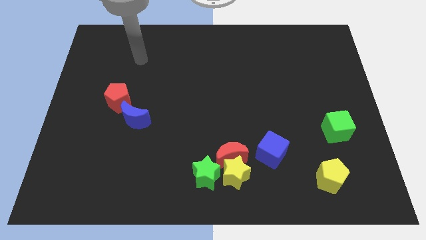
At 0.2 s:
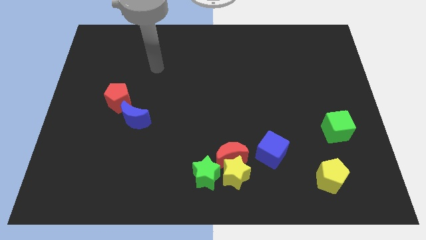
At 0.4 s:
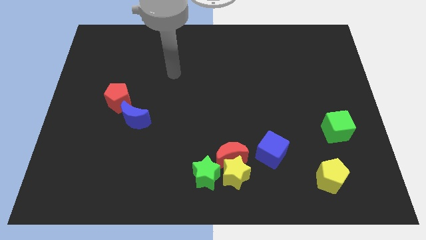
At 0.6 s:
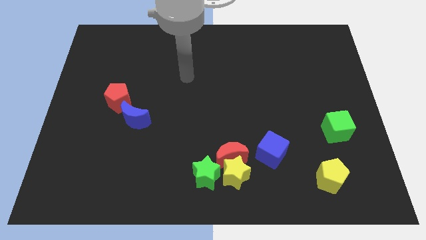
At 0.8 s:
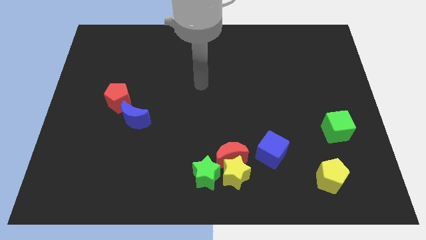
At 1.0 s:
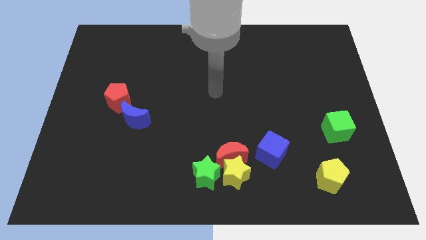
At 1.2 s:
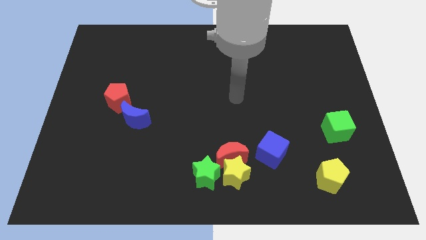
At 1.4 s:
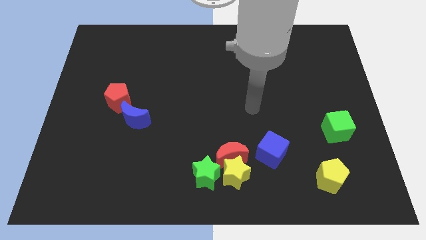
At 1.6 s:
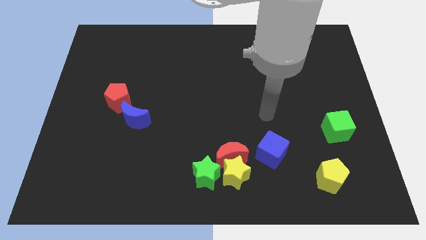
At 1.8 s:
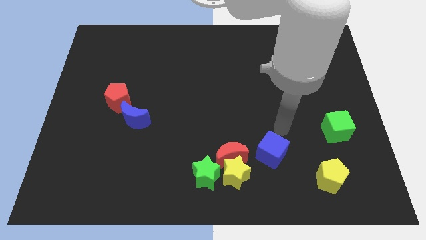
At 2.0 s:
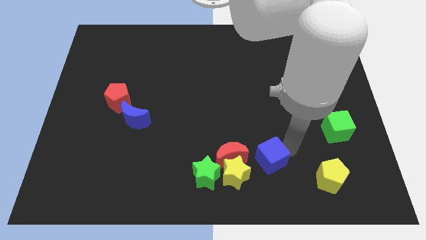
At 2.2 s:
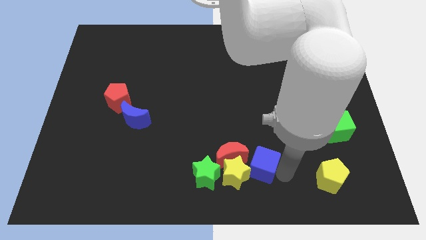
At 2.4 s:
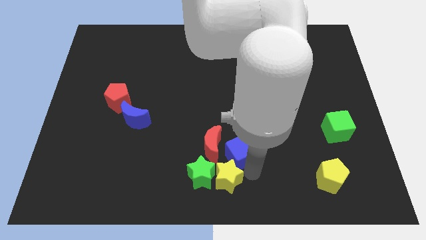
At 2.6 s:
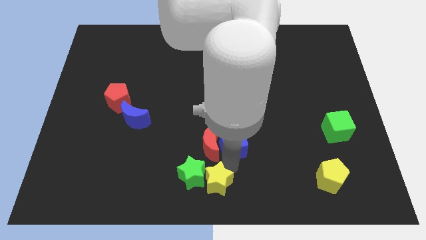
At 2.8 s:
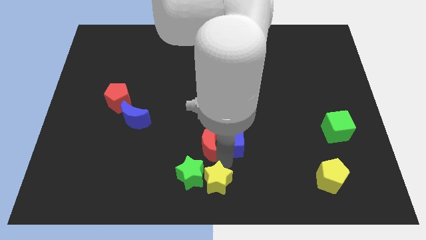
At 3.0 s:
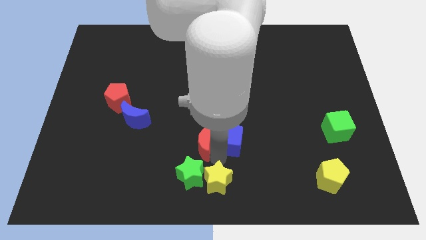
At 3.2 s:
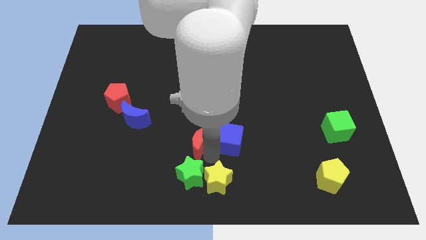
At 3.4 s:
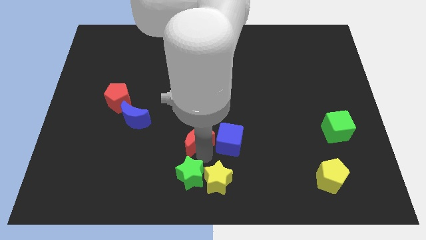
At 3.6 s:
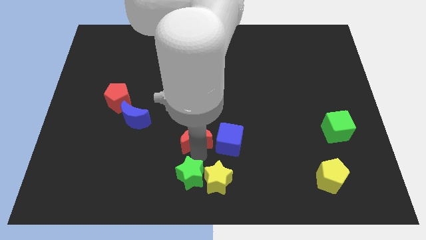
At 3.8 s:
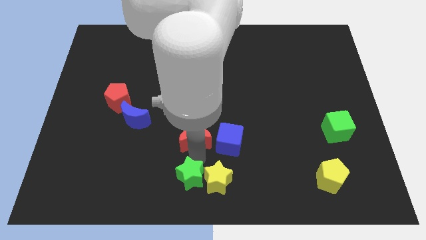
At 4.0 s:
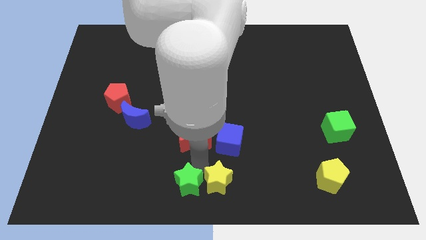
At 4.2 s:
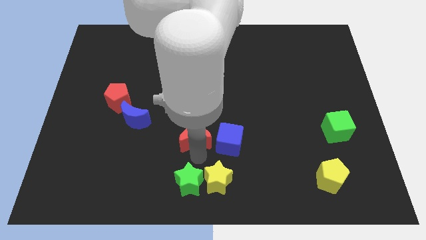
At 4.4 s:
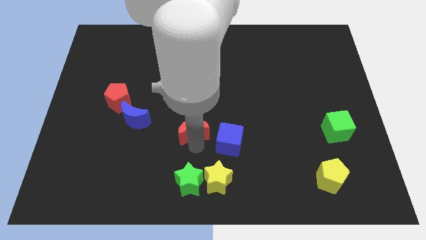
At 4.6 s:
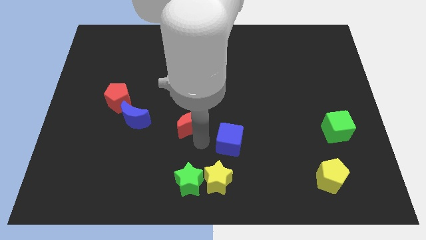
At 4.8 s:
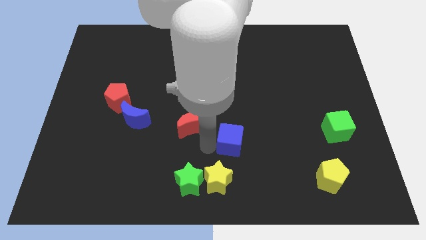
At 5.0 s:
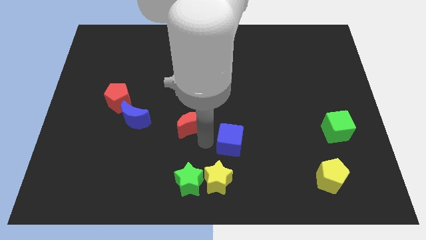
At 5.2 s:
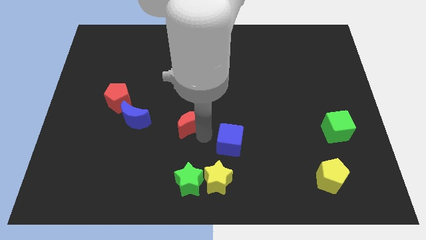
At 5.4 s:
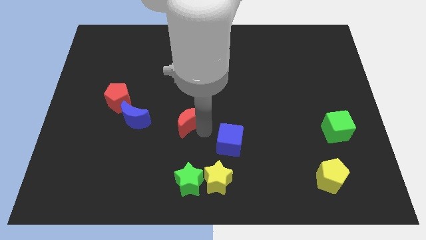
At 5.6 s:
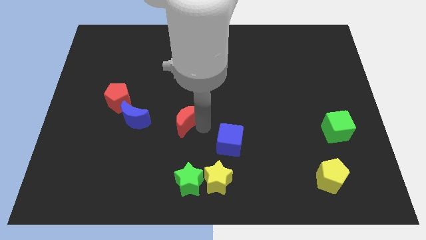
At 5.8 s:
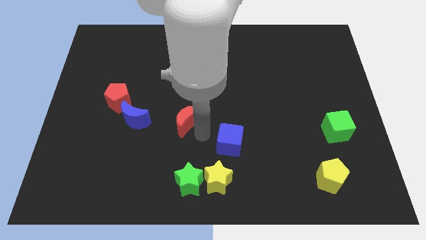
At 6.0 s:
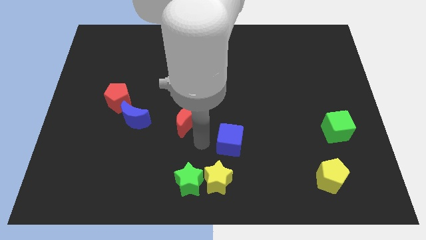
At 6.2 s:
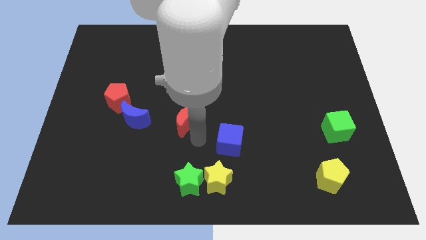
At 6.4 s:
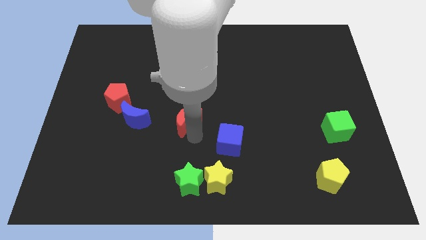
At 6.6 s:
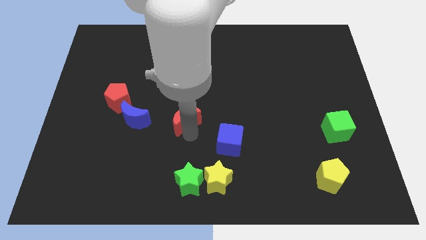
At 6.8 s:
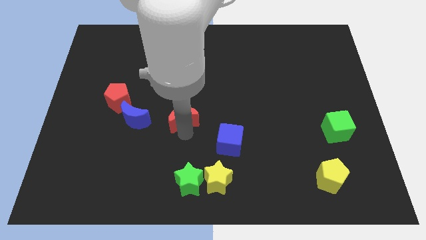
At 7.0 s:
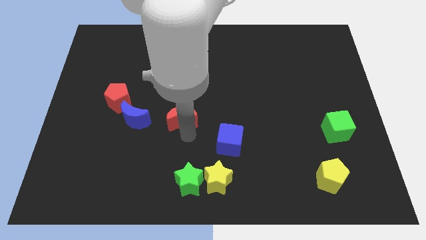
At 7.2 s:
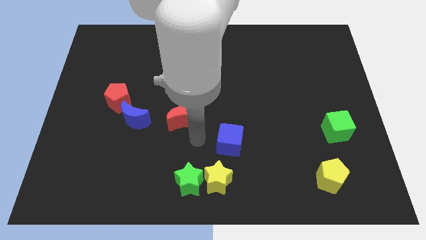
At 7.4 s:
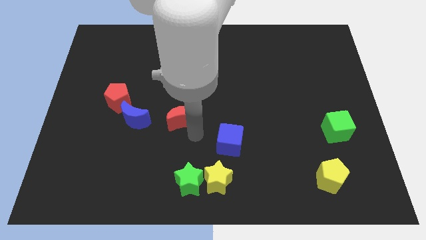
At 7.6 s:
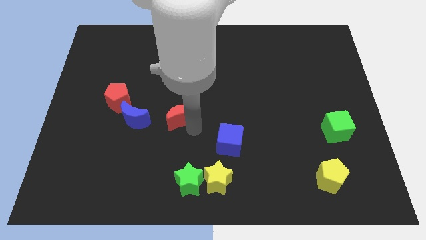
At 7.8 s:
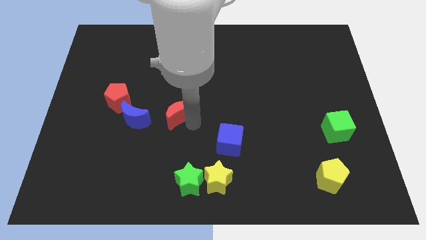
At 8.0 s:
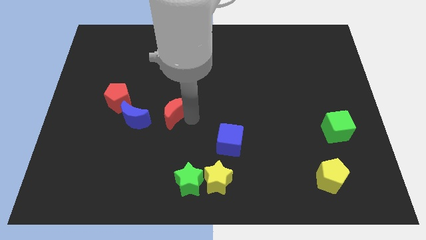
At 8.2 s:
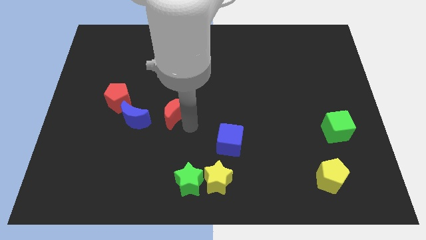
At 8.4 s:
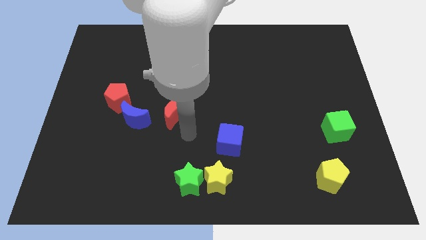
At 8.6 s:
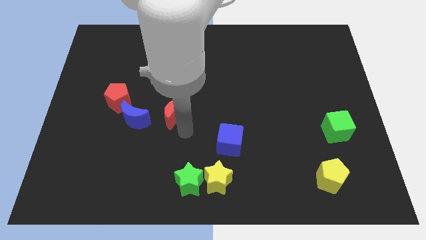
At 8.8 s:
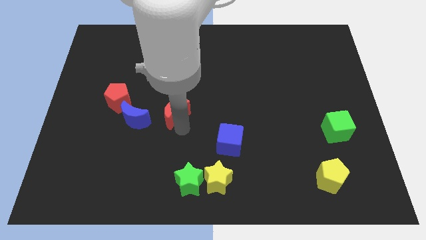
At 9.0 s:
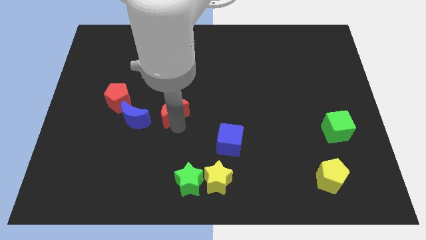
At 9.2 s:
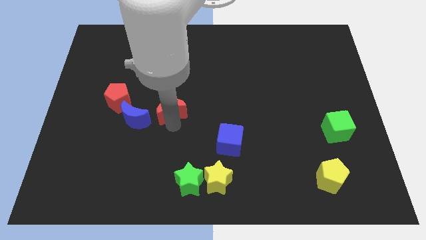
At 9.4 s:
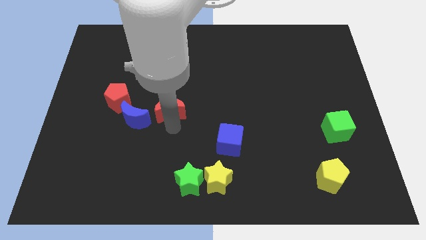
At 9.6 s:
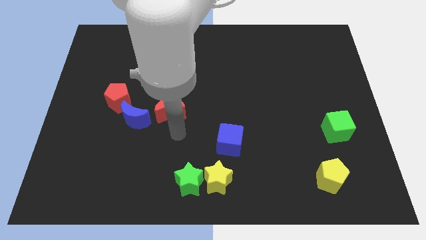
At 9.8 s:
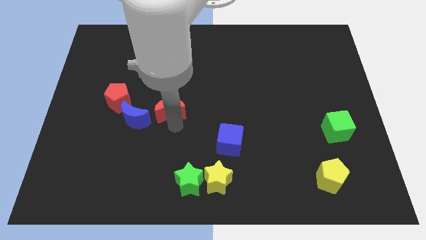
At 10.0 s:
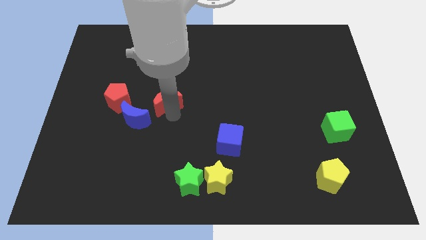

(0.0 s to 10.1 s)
move the red moon up and to the left

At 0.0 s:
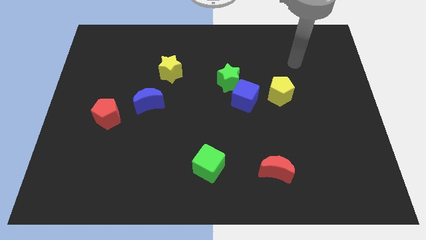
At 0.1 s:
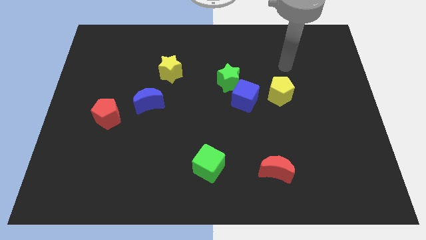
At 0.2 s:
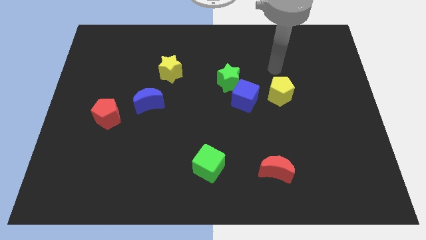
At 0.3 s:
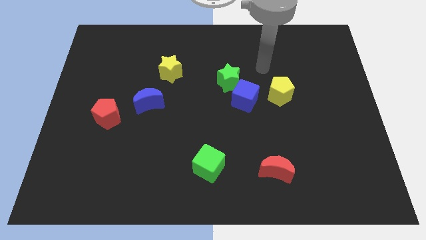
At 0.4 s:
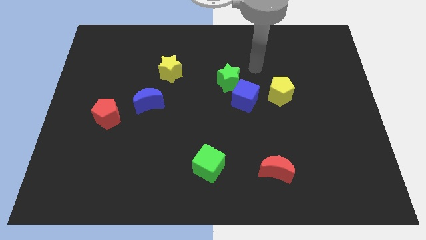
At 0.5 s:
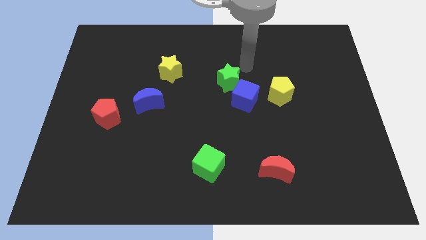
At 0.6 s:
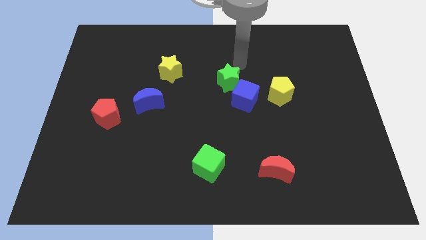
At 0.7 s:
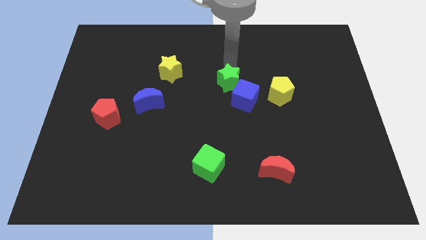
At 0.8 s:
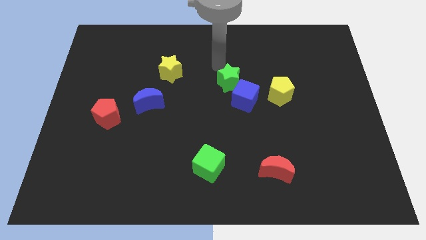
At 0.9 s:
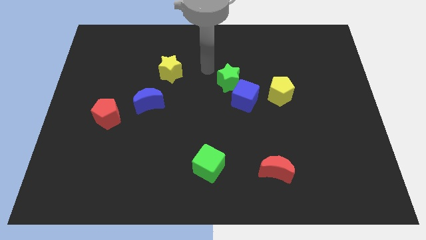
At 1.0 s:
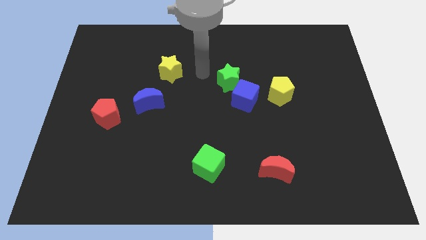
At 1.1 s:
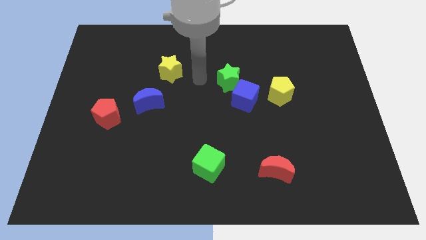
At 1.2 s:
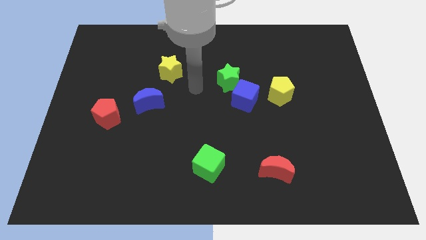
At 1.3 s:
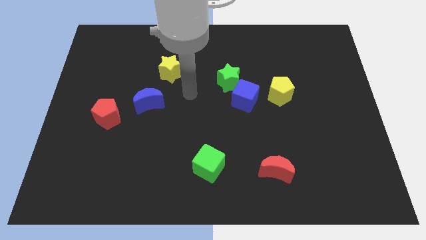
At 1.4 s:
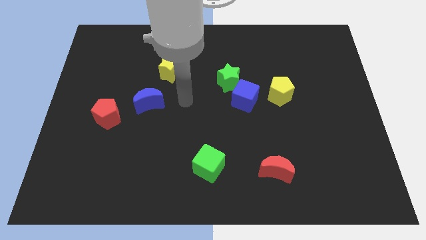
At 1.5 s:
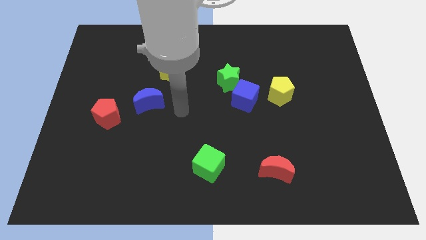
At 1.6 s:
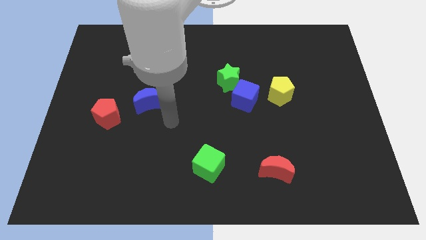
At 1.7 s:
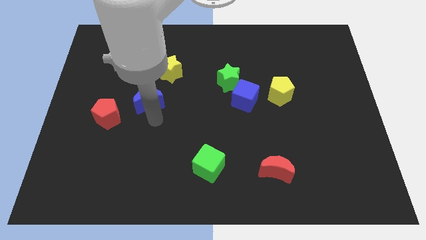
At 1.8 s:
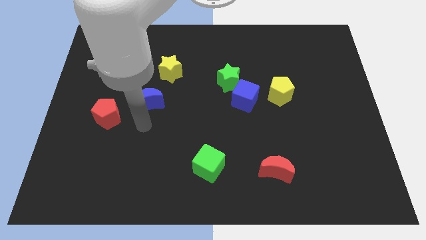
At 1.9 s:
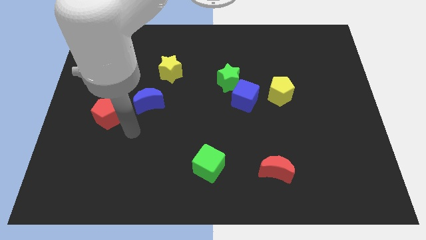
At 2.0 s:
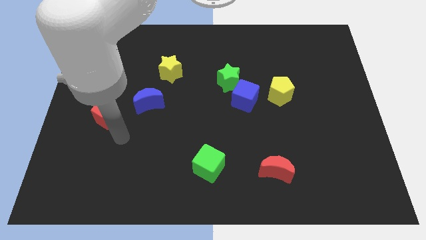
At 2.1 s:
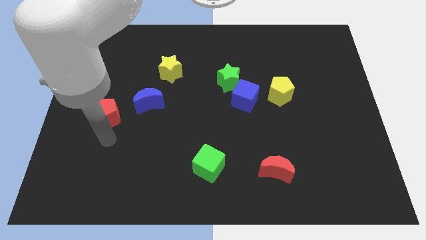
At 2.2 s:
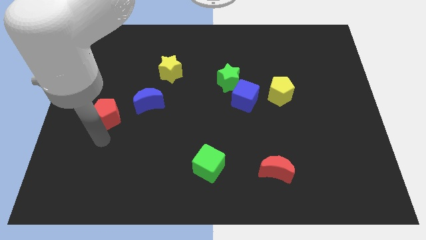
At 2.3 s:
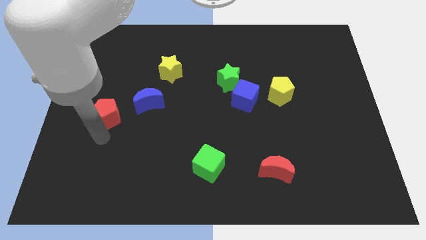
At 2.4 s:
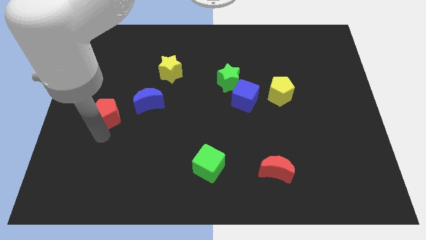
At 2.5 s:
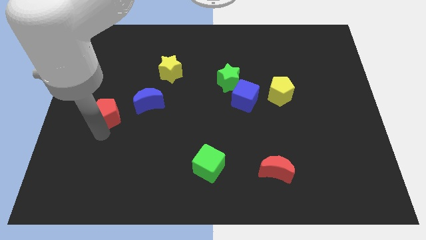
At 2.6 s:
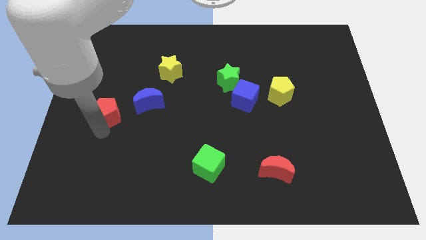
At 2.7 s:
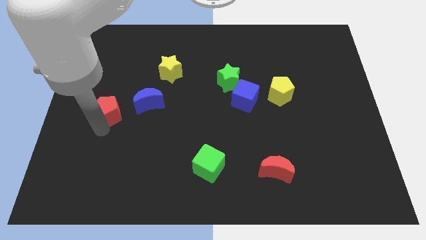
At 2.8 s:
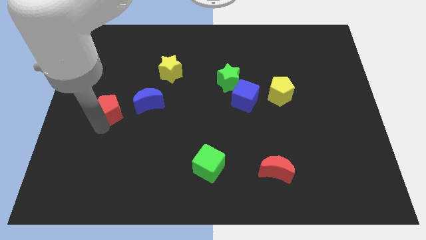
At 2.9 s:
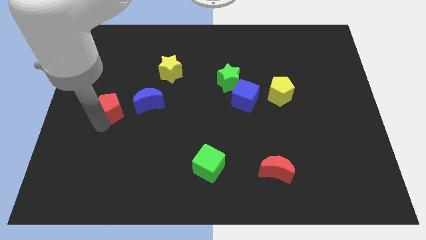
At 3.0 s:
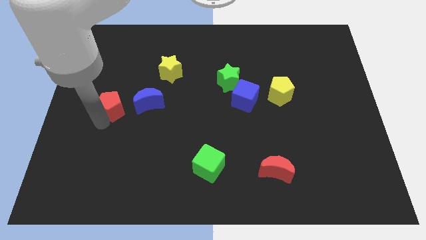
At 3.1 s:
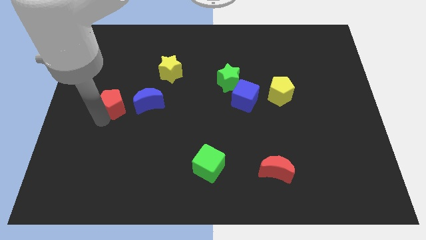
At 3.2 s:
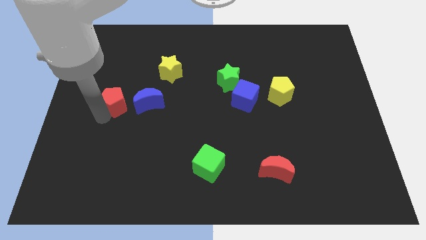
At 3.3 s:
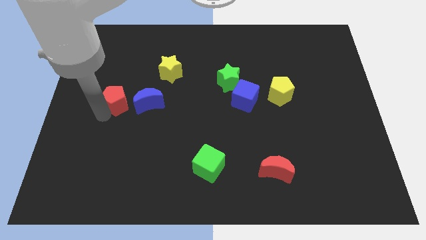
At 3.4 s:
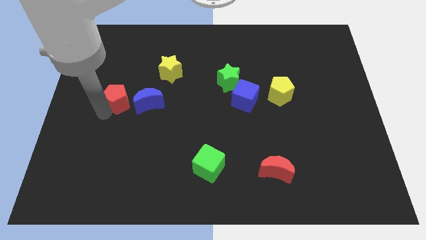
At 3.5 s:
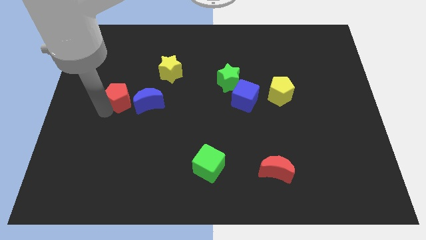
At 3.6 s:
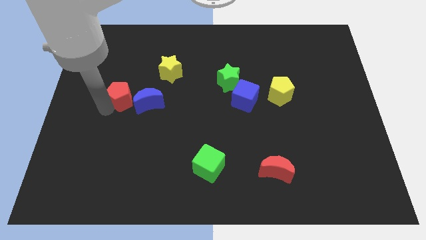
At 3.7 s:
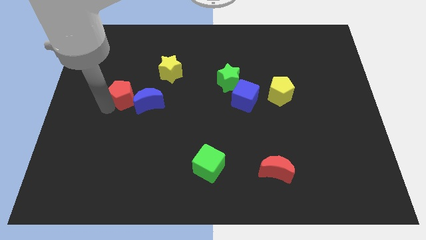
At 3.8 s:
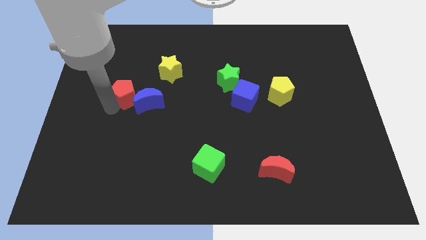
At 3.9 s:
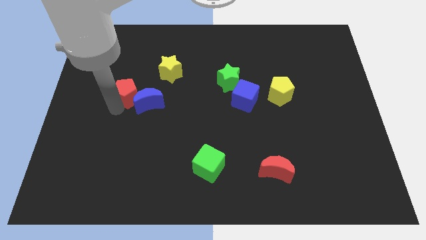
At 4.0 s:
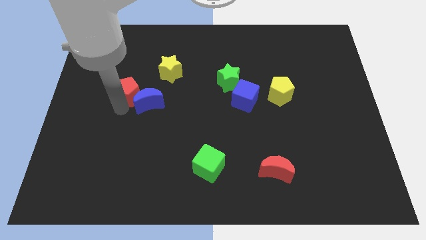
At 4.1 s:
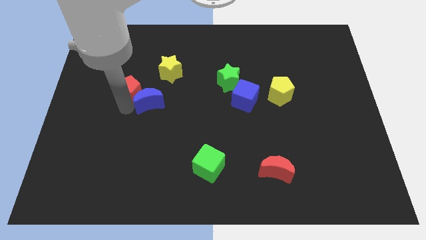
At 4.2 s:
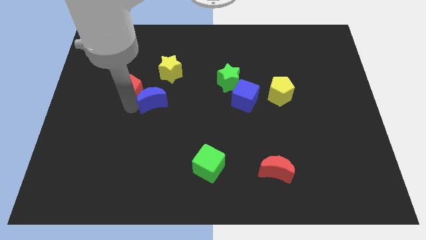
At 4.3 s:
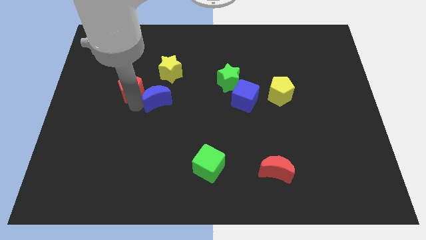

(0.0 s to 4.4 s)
slide the red pentagon slightly up
